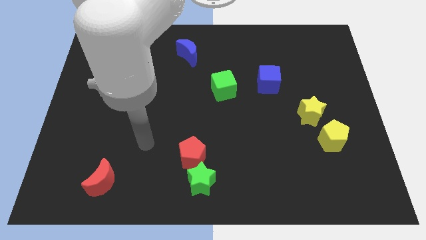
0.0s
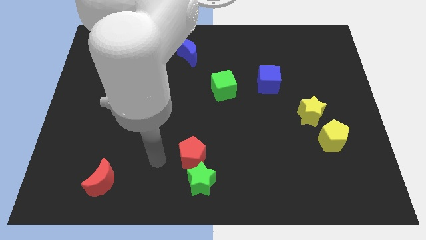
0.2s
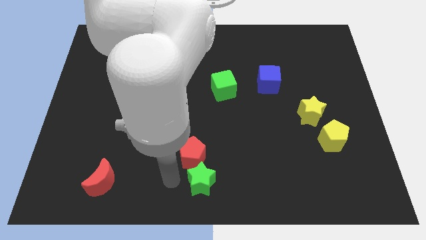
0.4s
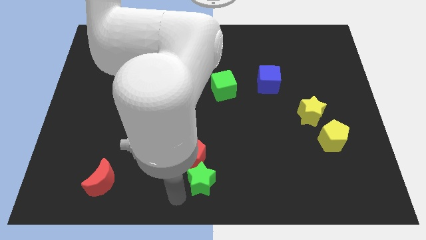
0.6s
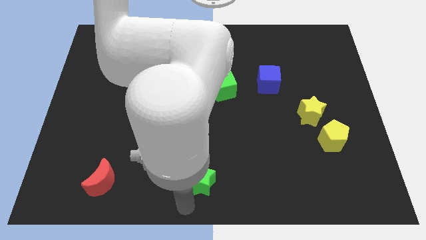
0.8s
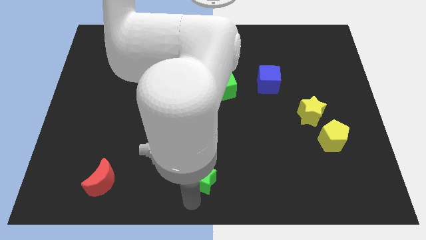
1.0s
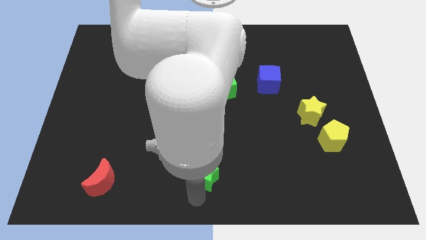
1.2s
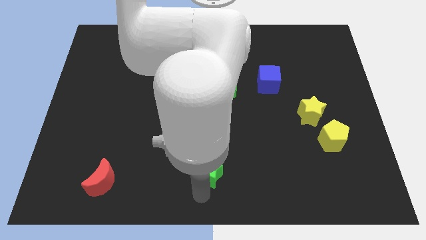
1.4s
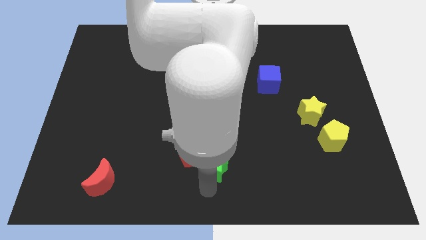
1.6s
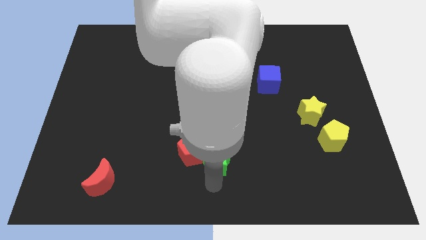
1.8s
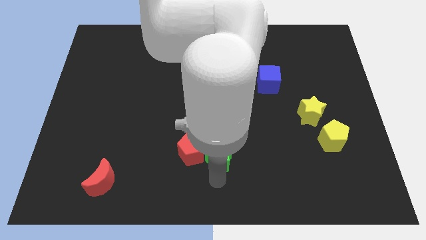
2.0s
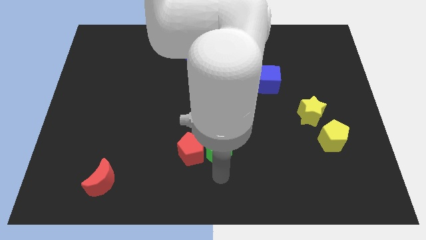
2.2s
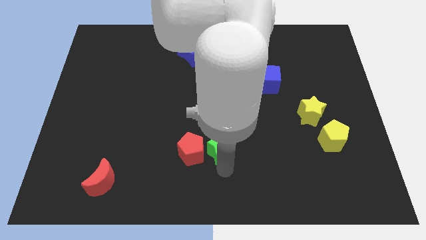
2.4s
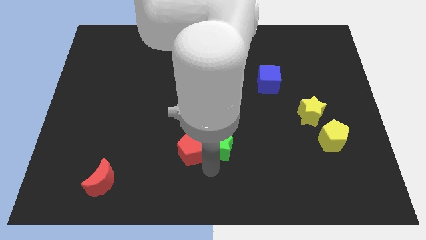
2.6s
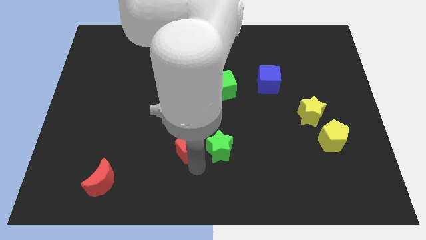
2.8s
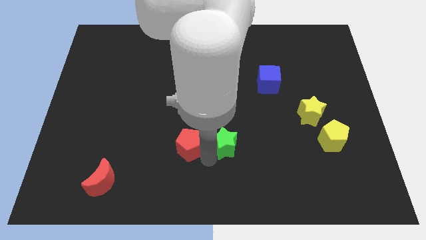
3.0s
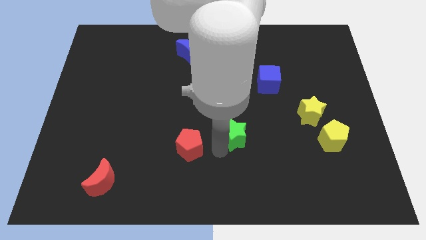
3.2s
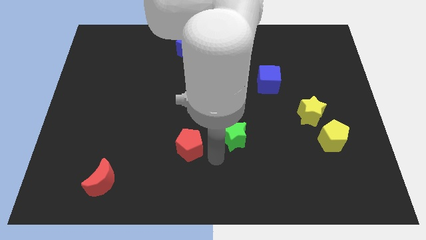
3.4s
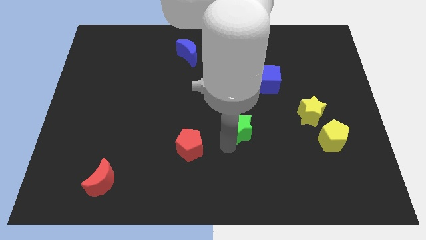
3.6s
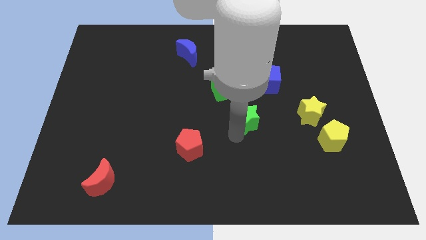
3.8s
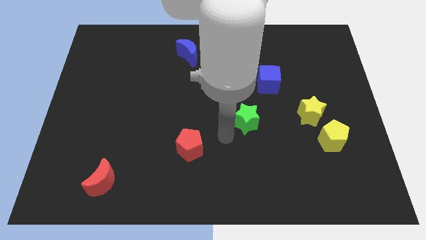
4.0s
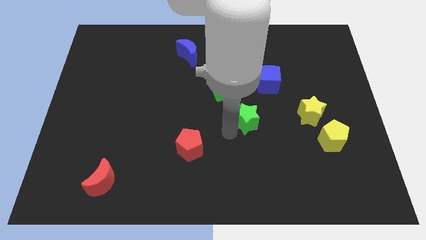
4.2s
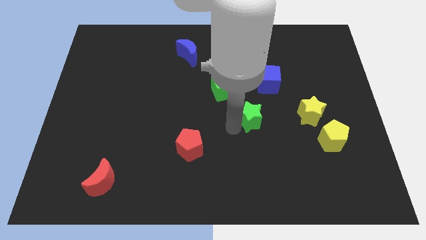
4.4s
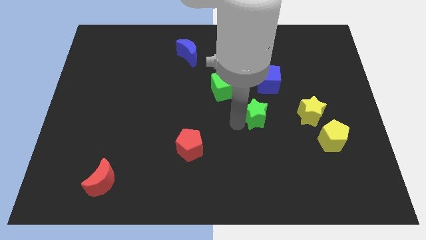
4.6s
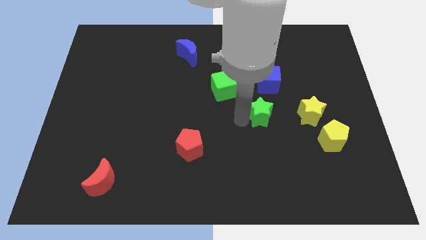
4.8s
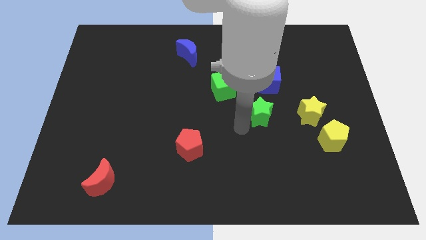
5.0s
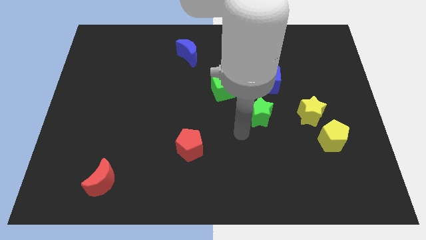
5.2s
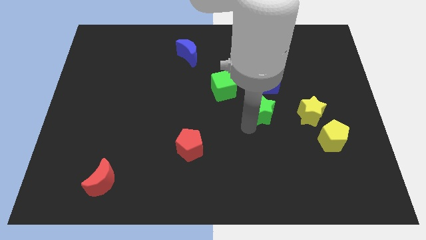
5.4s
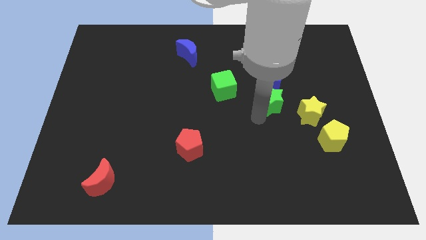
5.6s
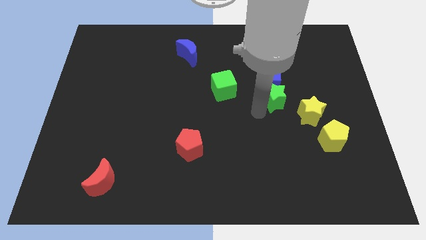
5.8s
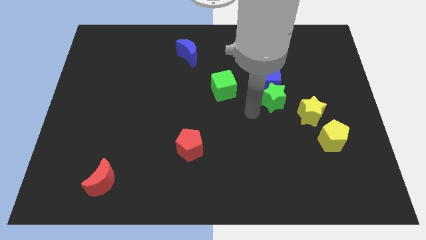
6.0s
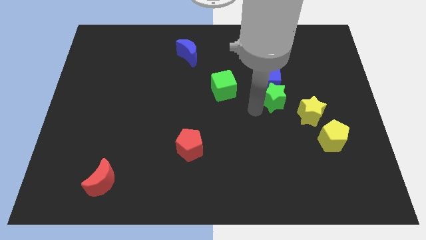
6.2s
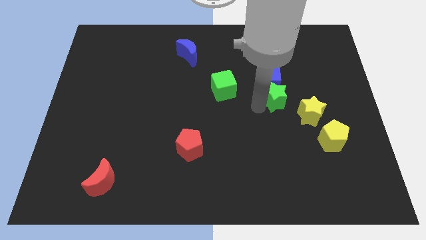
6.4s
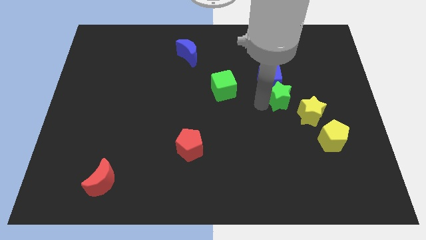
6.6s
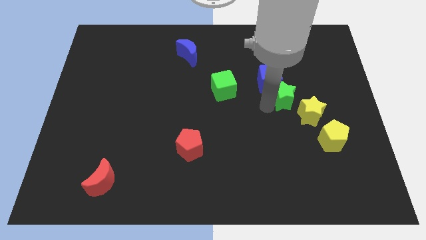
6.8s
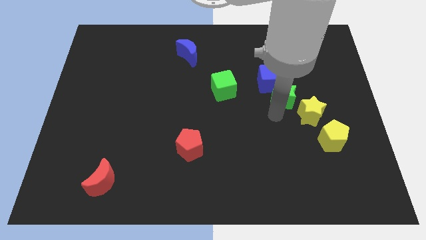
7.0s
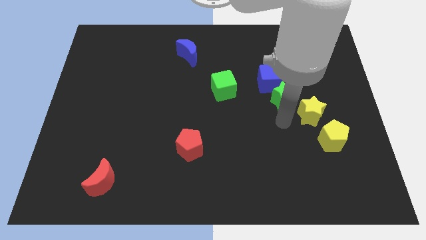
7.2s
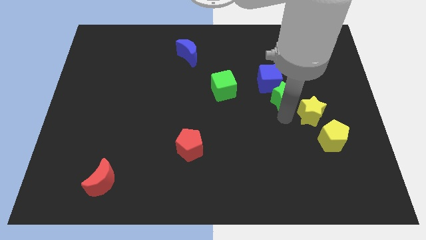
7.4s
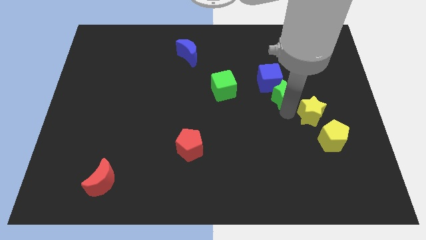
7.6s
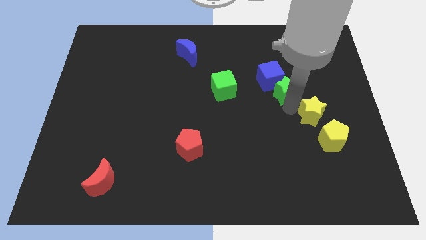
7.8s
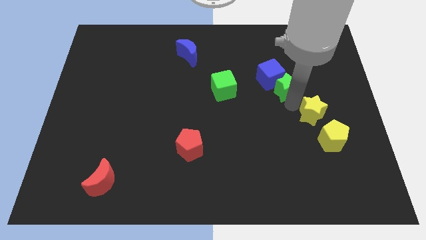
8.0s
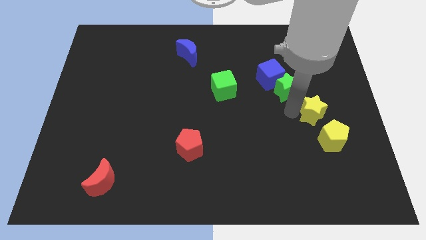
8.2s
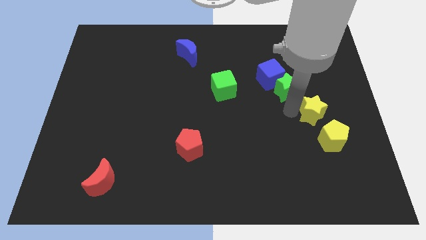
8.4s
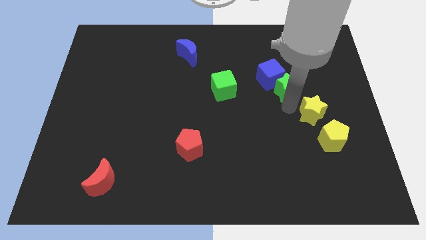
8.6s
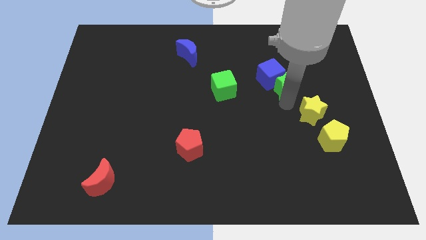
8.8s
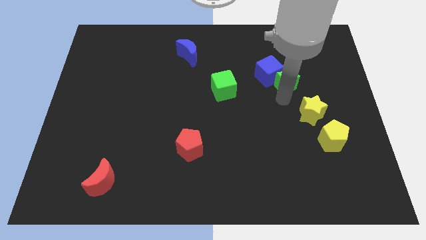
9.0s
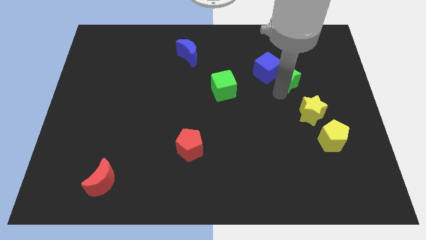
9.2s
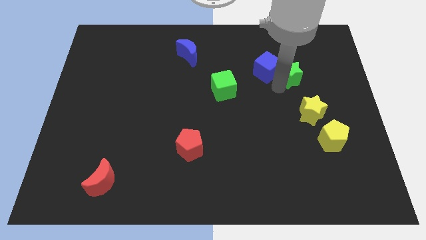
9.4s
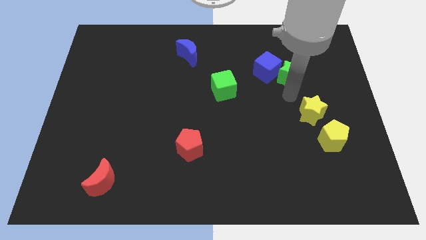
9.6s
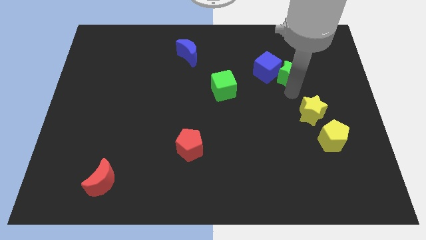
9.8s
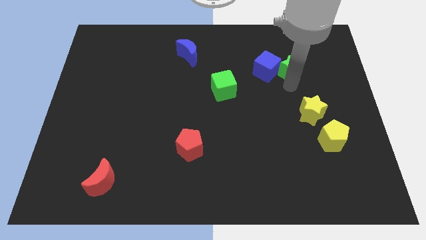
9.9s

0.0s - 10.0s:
push the green star diagonally up and to the right of the blue cube
